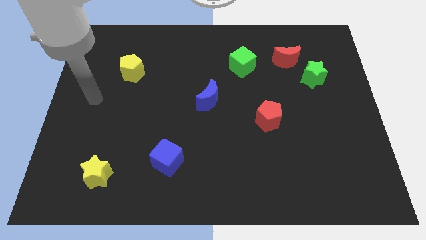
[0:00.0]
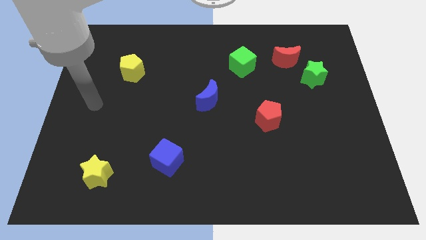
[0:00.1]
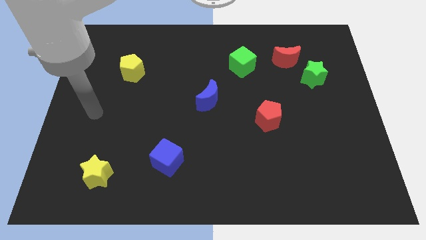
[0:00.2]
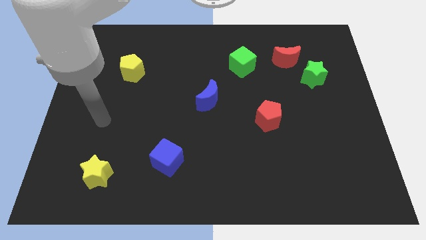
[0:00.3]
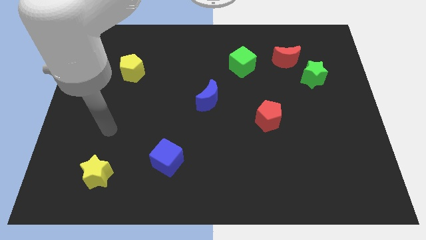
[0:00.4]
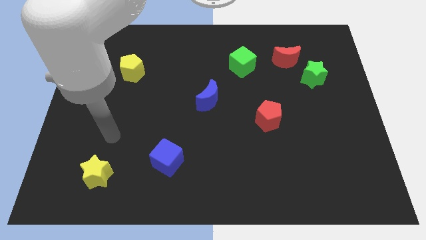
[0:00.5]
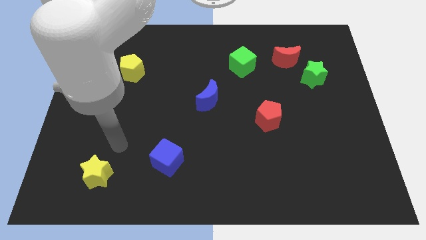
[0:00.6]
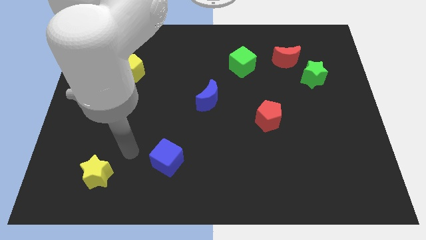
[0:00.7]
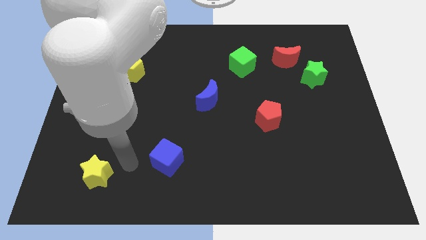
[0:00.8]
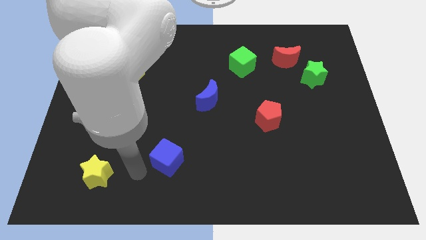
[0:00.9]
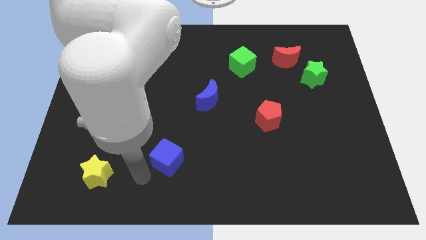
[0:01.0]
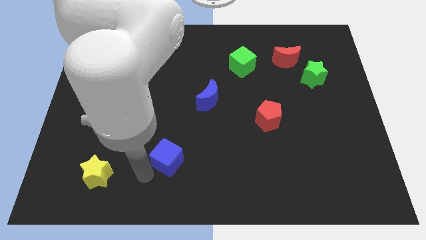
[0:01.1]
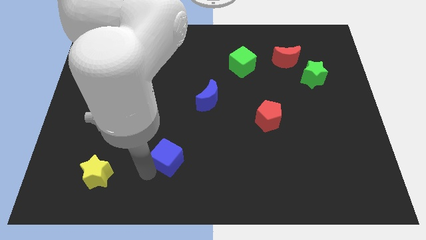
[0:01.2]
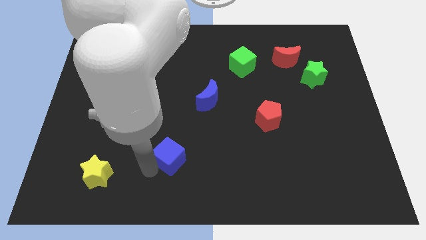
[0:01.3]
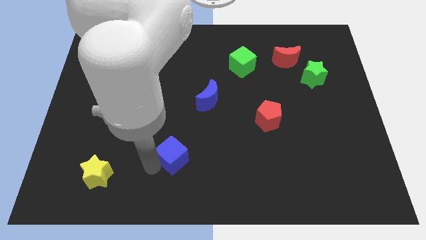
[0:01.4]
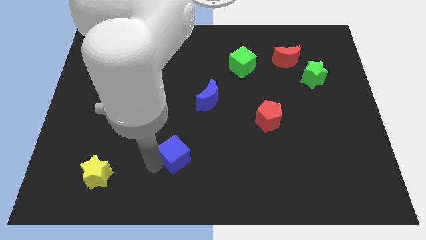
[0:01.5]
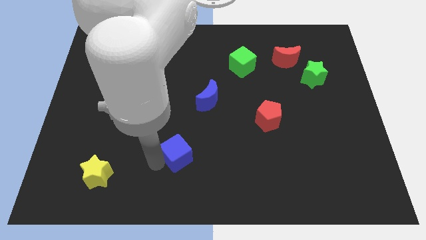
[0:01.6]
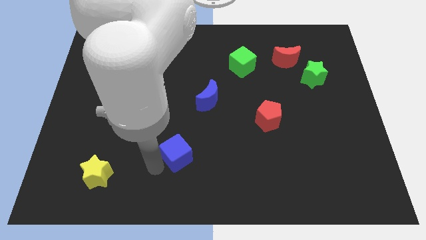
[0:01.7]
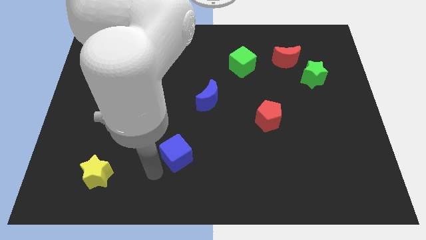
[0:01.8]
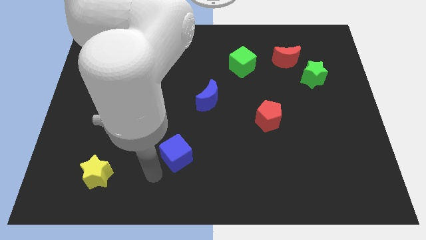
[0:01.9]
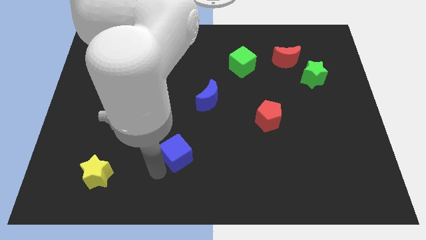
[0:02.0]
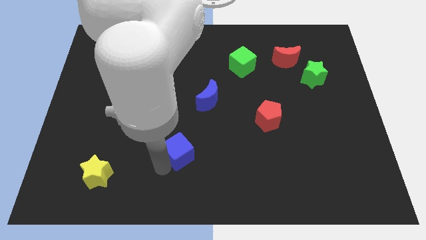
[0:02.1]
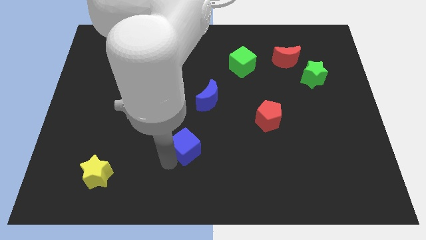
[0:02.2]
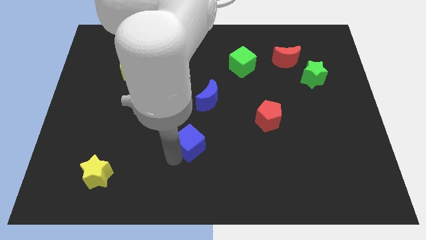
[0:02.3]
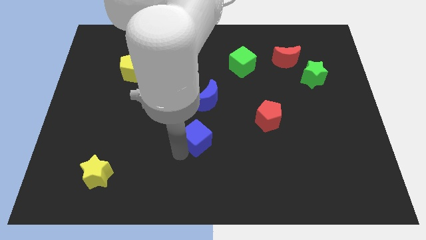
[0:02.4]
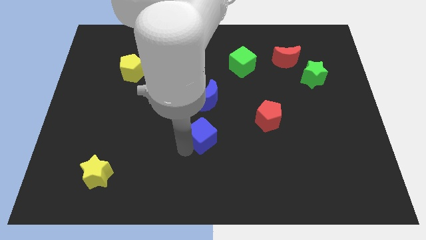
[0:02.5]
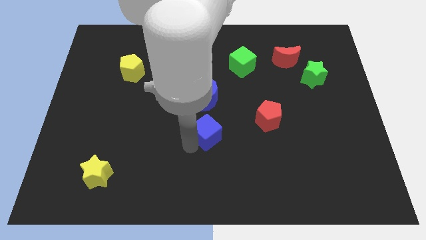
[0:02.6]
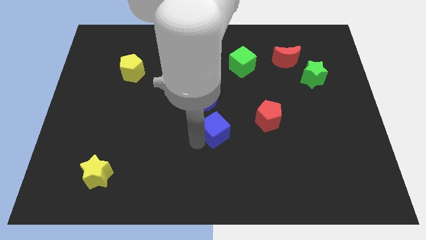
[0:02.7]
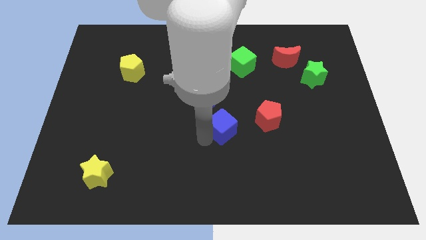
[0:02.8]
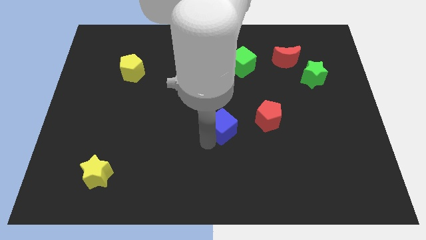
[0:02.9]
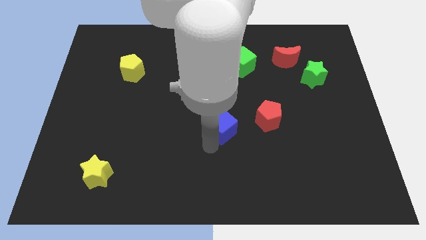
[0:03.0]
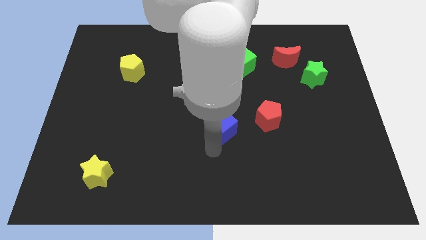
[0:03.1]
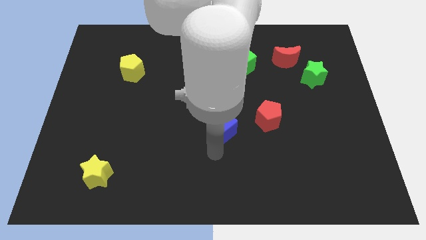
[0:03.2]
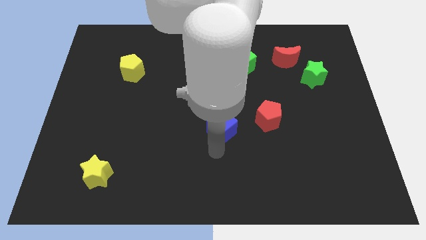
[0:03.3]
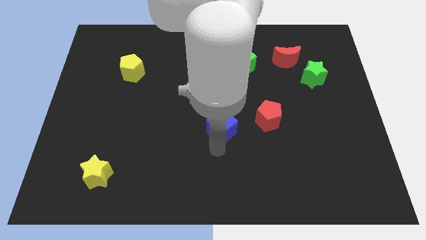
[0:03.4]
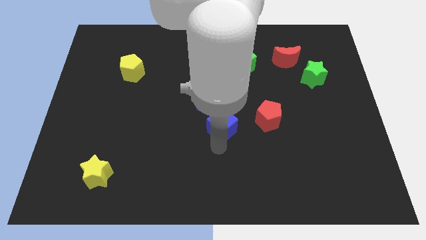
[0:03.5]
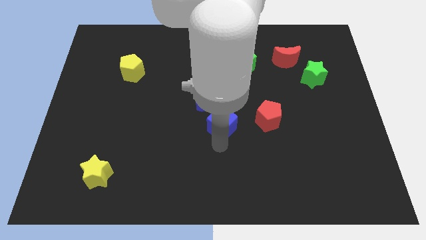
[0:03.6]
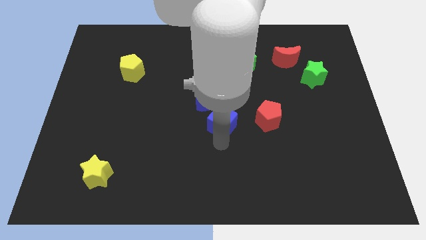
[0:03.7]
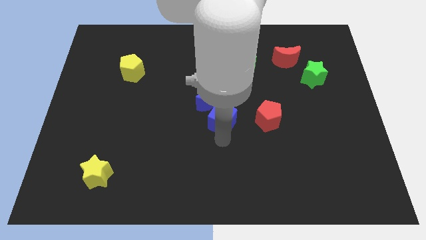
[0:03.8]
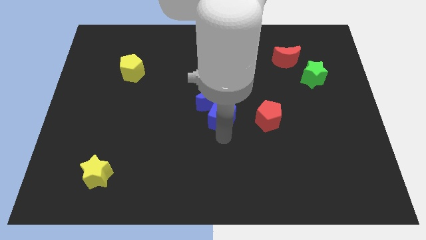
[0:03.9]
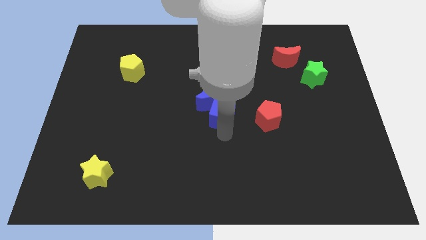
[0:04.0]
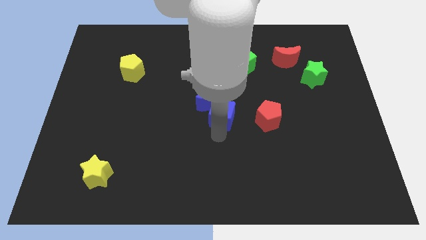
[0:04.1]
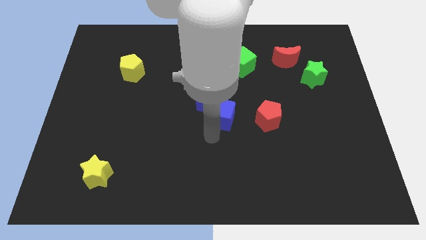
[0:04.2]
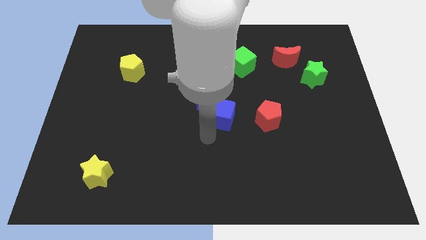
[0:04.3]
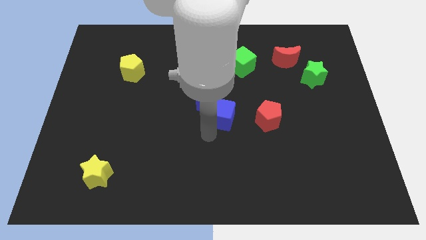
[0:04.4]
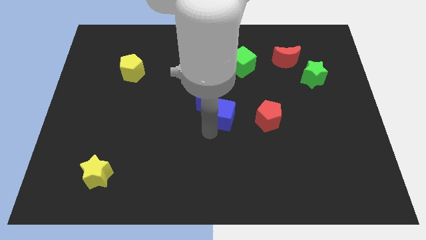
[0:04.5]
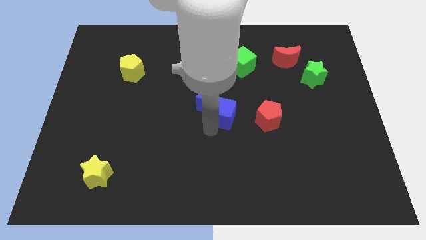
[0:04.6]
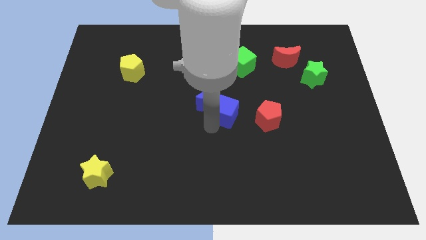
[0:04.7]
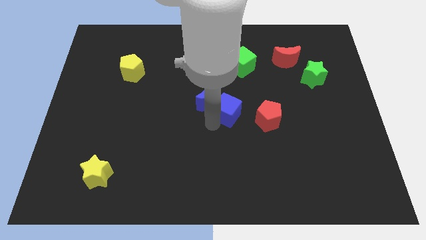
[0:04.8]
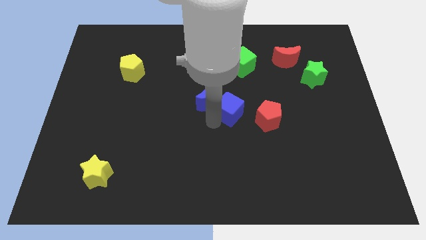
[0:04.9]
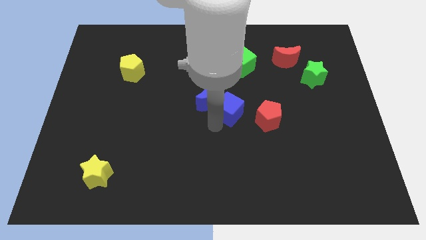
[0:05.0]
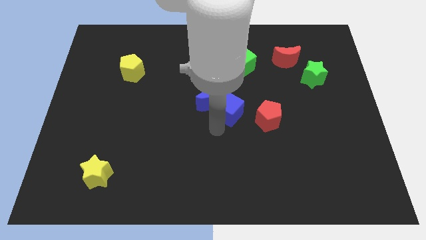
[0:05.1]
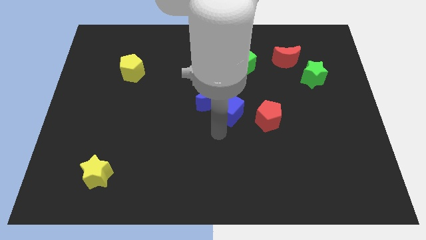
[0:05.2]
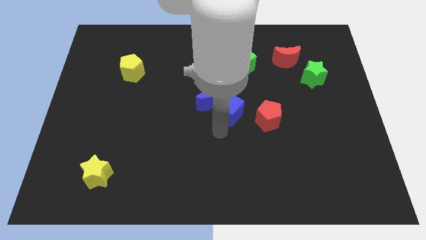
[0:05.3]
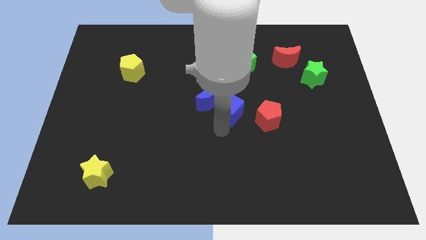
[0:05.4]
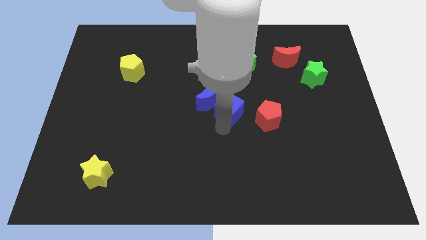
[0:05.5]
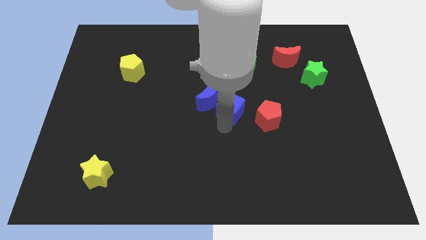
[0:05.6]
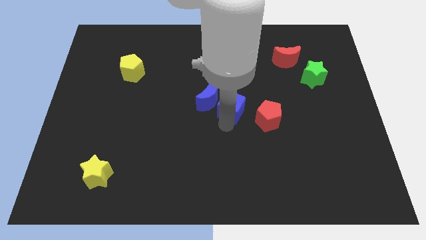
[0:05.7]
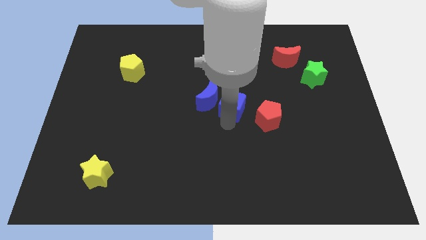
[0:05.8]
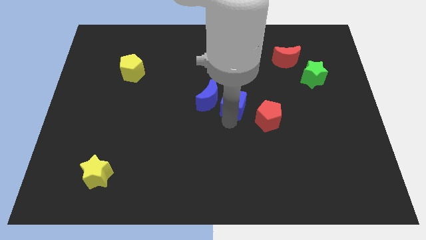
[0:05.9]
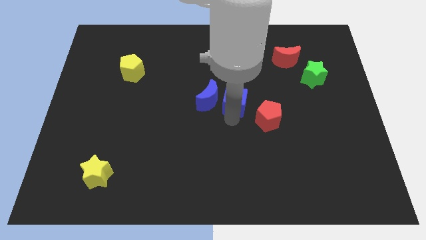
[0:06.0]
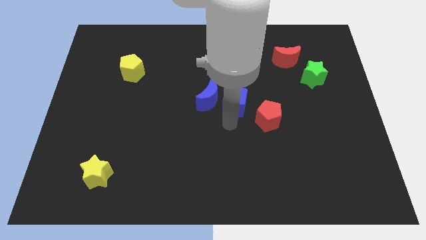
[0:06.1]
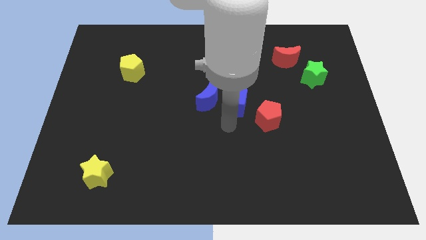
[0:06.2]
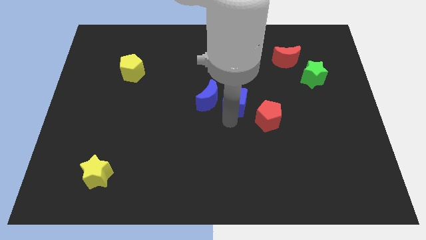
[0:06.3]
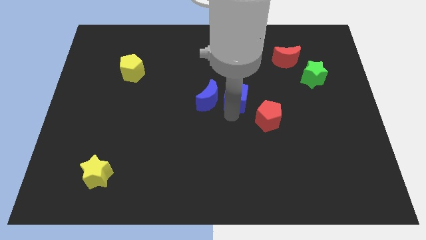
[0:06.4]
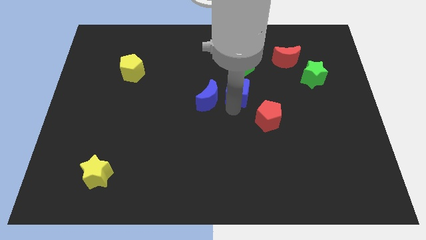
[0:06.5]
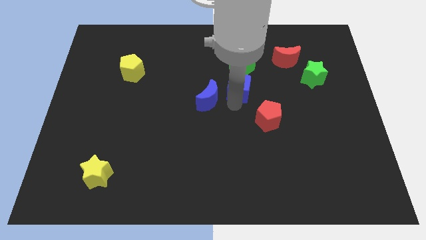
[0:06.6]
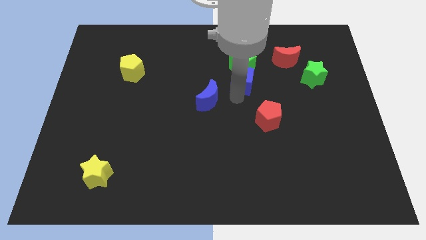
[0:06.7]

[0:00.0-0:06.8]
push the blue cube next to the green cube
